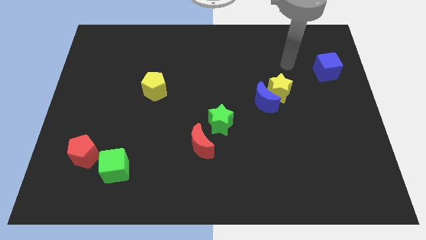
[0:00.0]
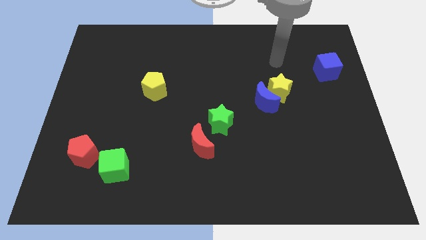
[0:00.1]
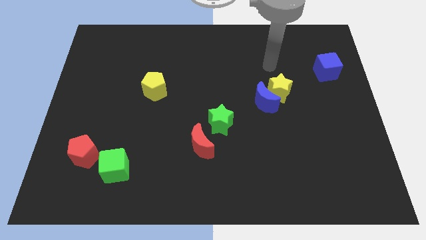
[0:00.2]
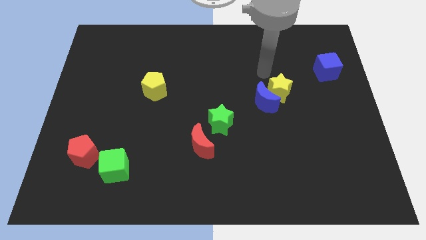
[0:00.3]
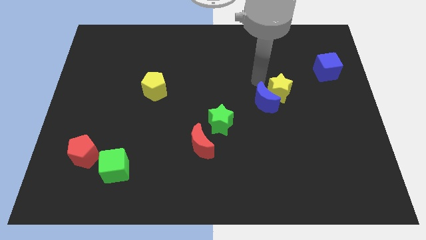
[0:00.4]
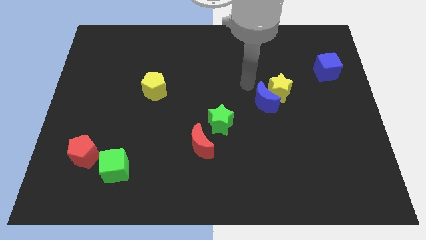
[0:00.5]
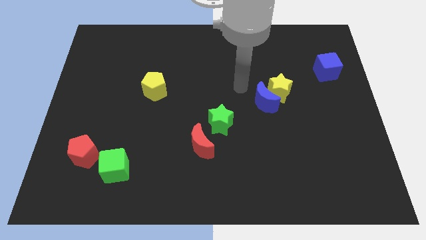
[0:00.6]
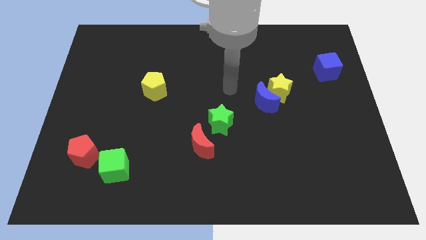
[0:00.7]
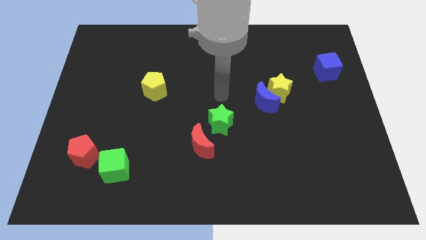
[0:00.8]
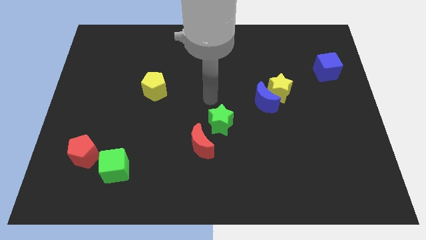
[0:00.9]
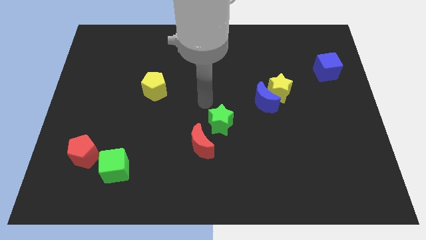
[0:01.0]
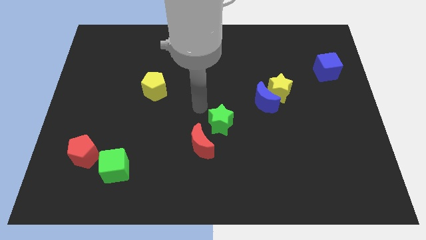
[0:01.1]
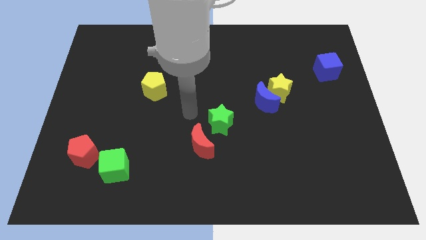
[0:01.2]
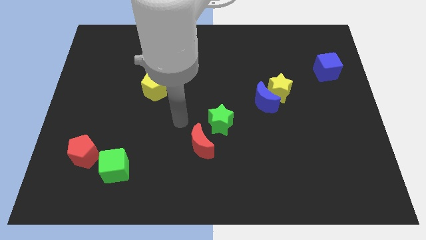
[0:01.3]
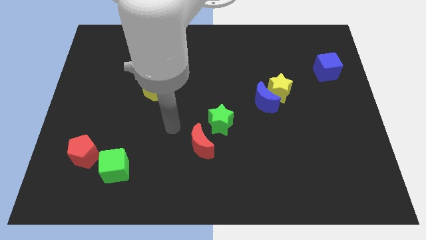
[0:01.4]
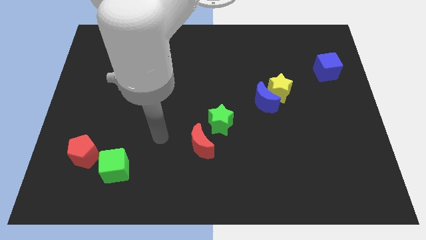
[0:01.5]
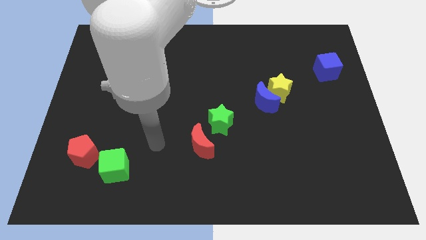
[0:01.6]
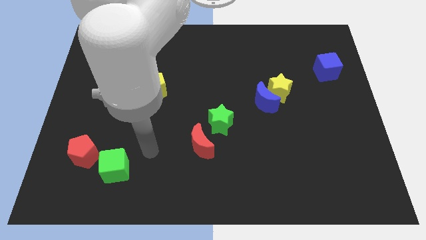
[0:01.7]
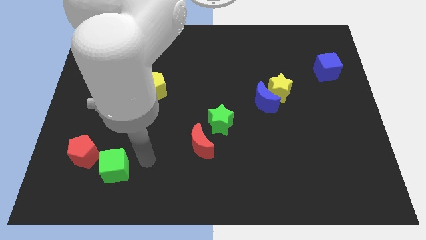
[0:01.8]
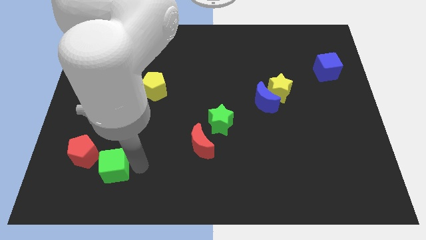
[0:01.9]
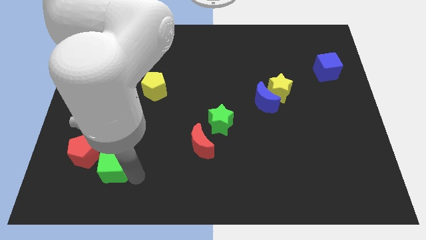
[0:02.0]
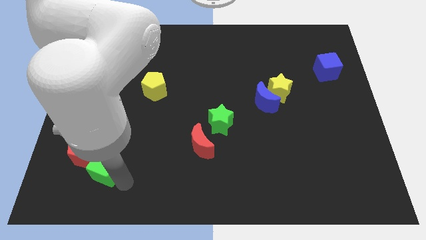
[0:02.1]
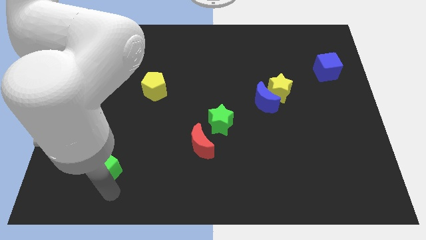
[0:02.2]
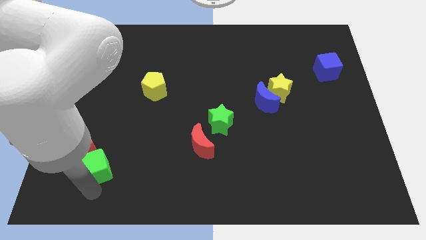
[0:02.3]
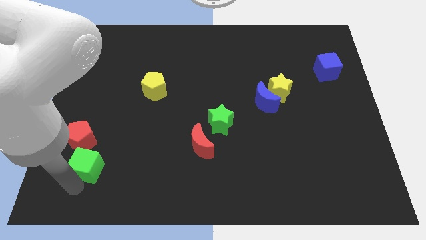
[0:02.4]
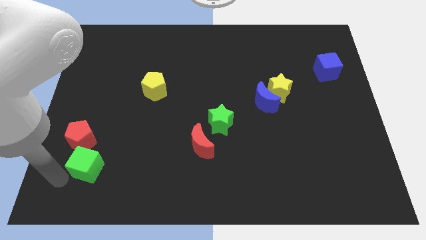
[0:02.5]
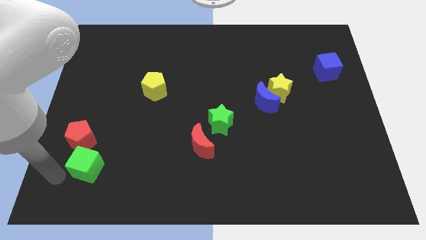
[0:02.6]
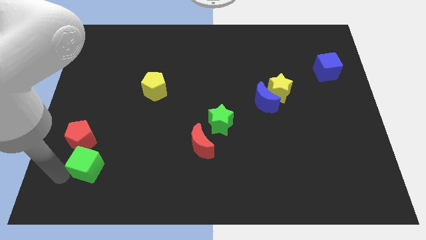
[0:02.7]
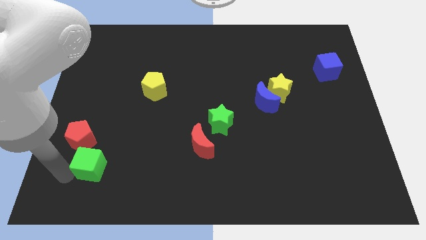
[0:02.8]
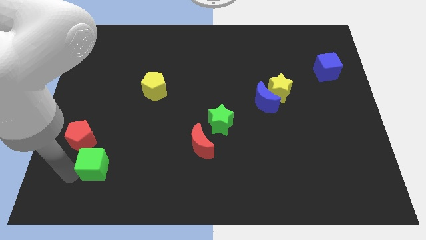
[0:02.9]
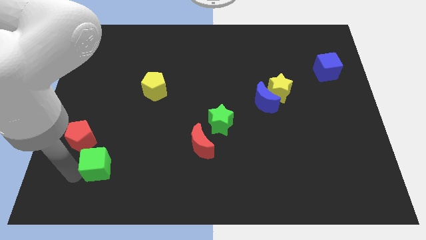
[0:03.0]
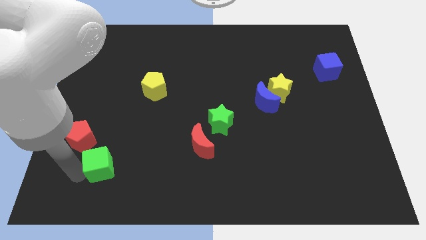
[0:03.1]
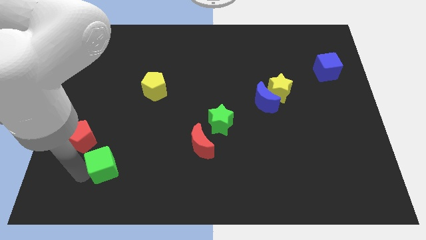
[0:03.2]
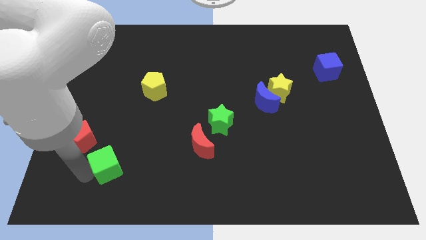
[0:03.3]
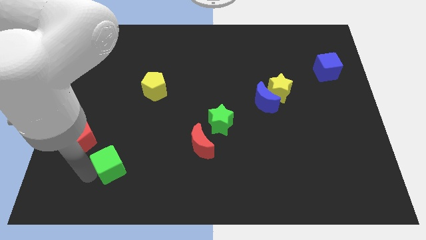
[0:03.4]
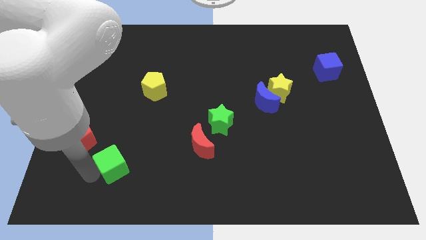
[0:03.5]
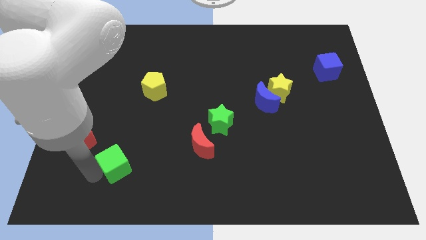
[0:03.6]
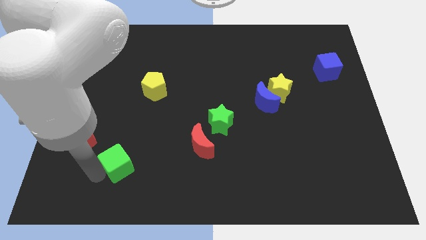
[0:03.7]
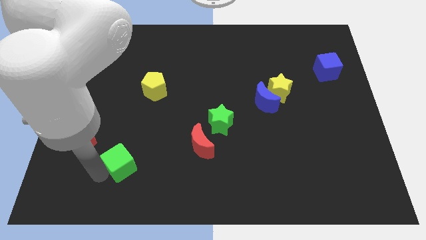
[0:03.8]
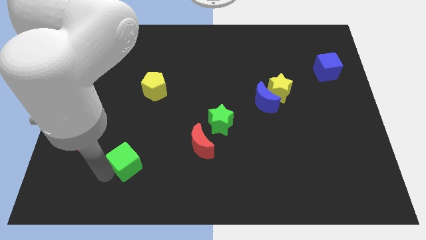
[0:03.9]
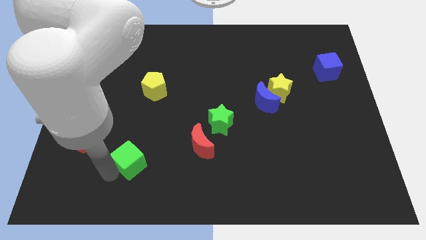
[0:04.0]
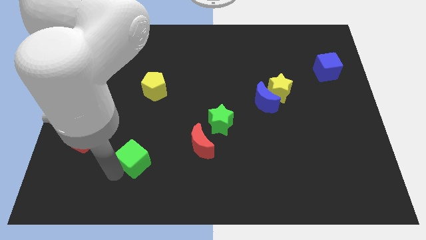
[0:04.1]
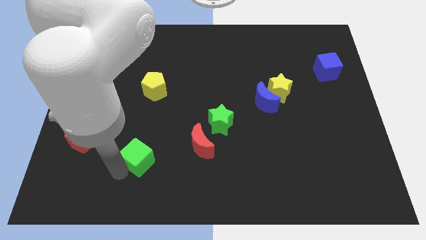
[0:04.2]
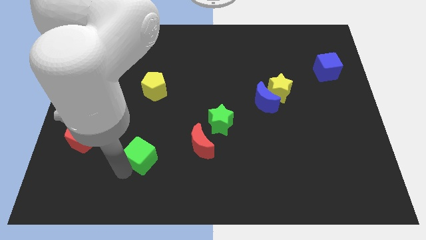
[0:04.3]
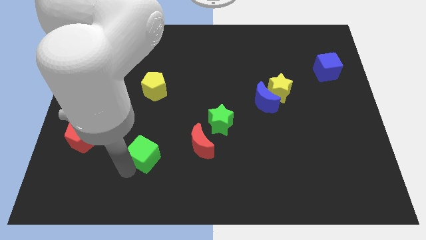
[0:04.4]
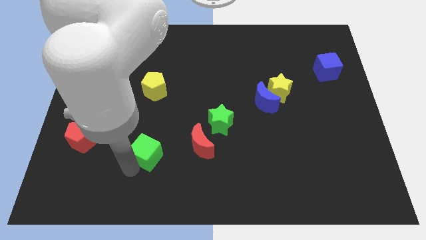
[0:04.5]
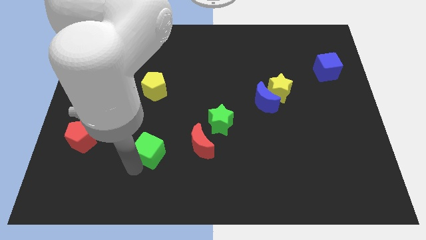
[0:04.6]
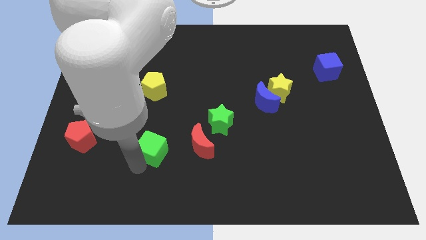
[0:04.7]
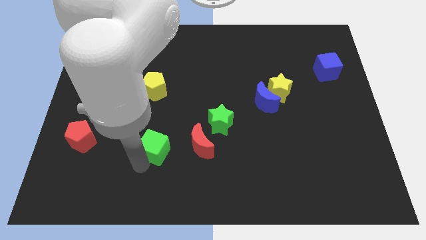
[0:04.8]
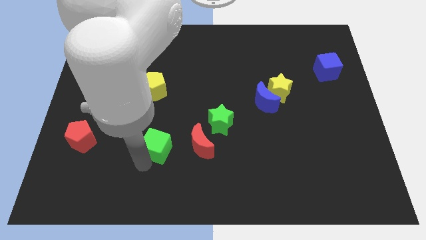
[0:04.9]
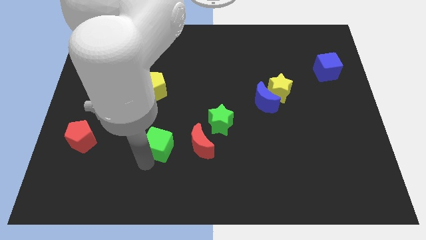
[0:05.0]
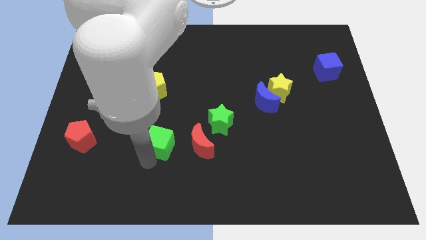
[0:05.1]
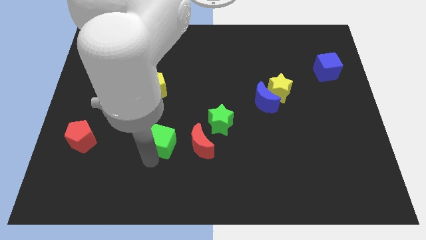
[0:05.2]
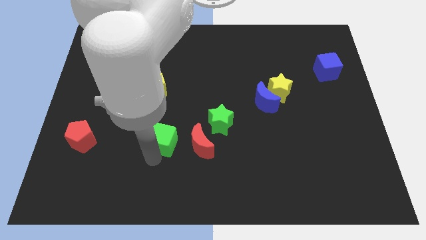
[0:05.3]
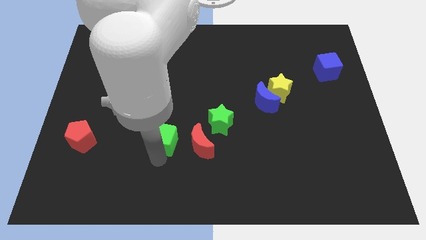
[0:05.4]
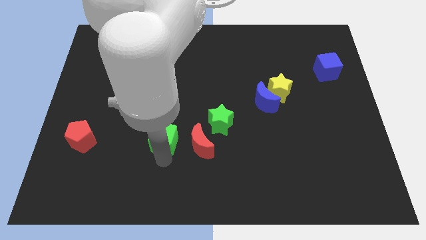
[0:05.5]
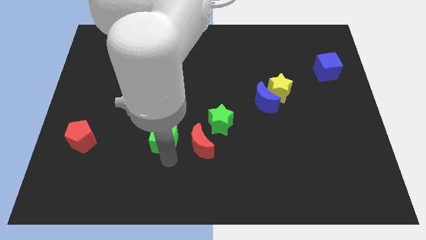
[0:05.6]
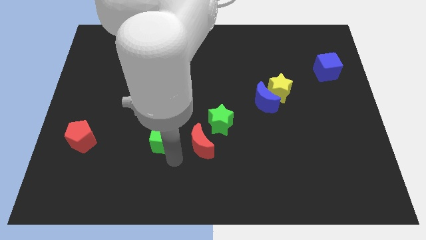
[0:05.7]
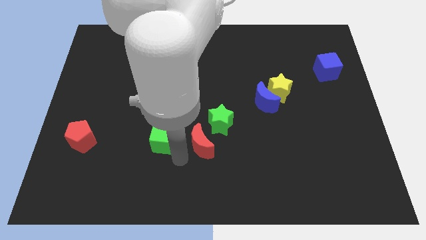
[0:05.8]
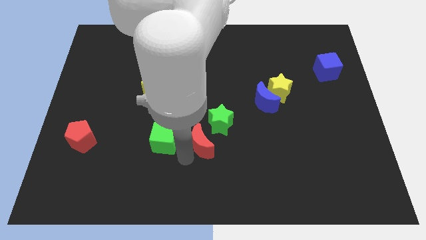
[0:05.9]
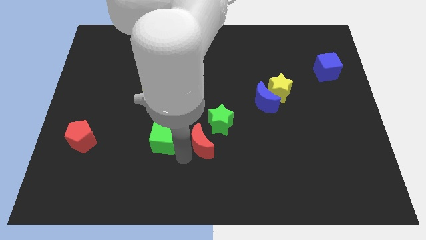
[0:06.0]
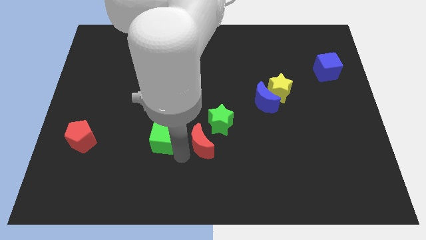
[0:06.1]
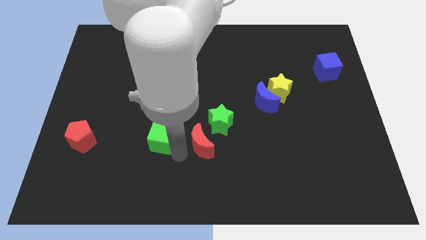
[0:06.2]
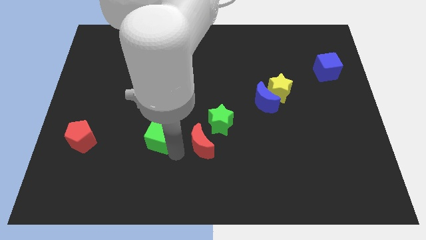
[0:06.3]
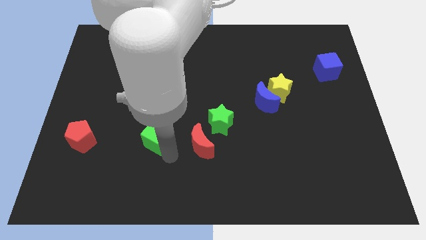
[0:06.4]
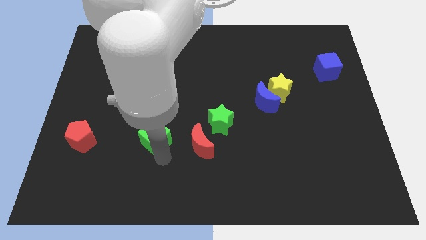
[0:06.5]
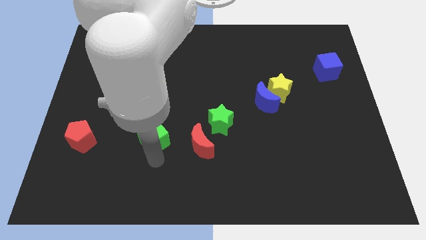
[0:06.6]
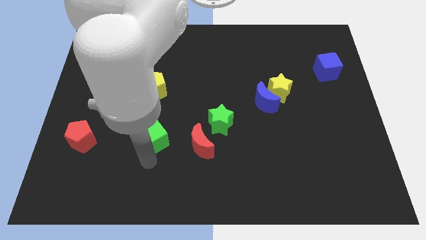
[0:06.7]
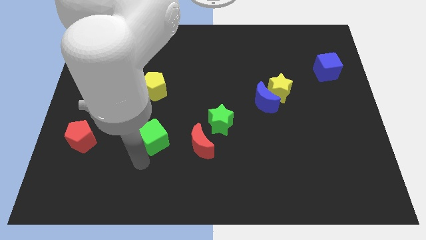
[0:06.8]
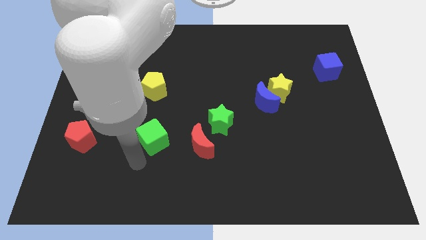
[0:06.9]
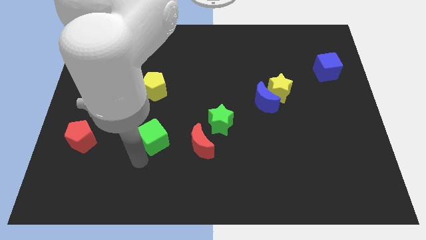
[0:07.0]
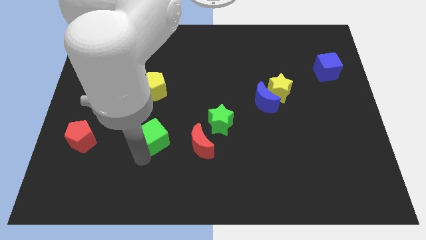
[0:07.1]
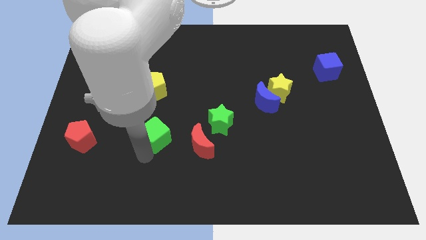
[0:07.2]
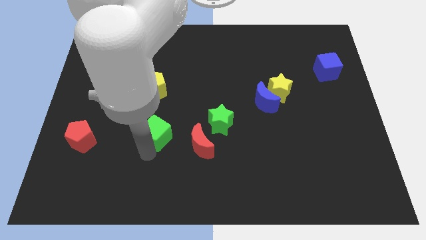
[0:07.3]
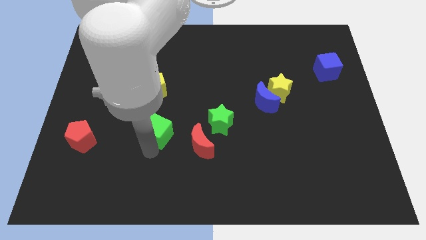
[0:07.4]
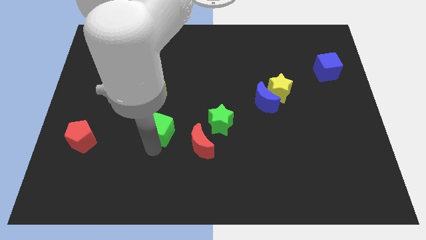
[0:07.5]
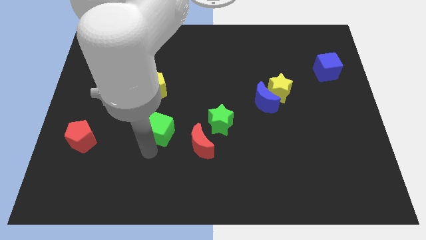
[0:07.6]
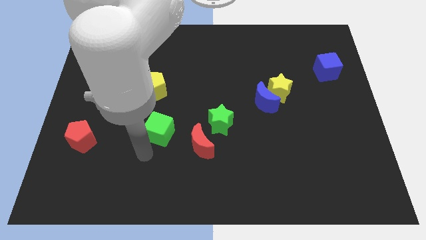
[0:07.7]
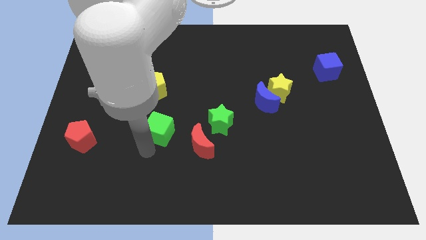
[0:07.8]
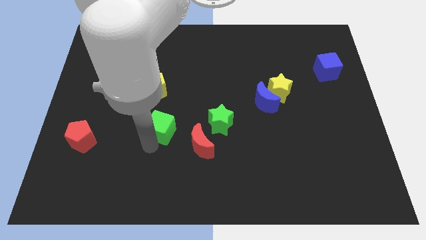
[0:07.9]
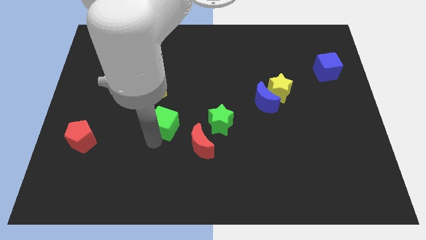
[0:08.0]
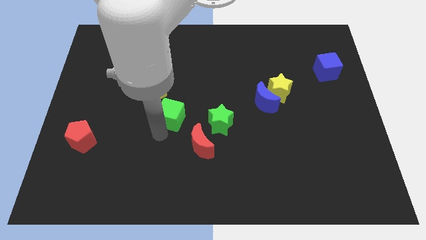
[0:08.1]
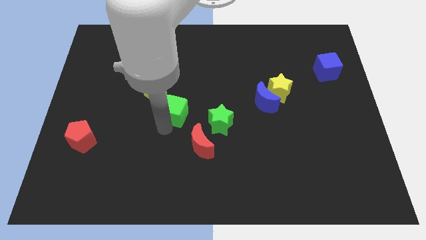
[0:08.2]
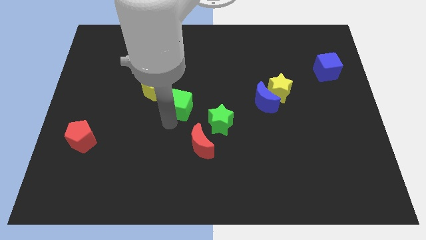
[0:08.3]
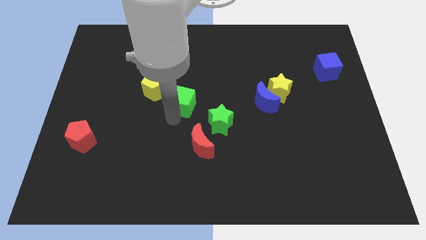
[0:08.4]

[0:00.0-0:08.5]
push the green cube right of the yellow pentagon
